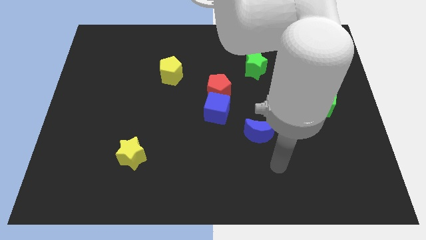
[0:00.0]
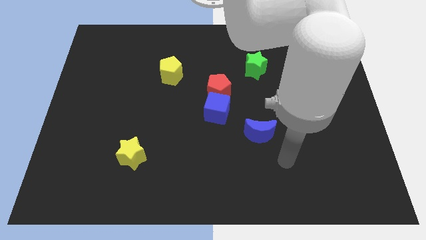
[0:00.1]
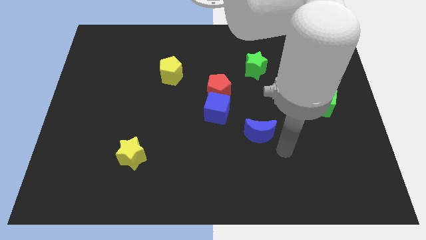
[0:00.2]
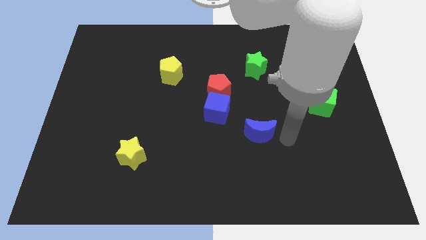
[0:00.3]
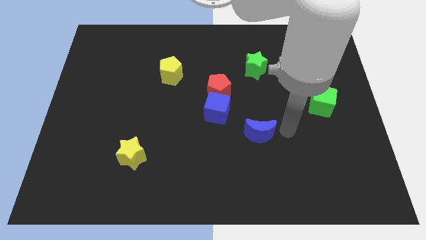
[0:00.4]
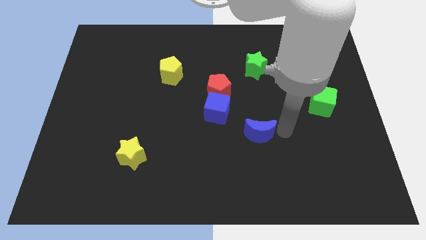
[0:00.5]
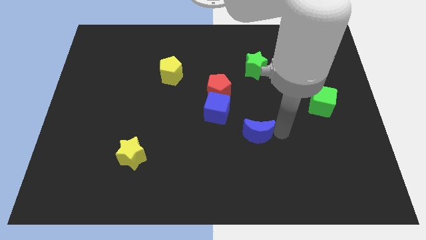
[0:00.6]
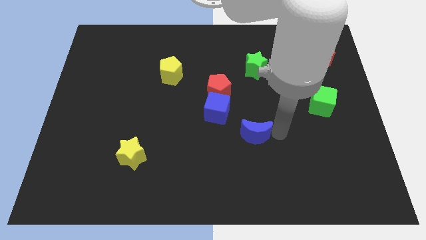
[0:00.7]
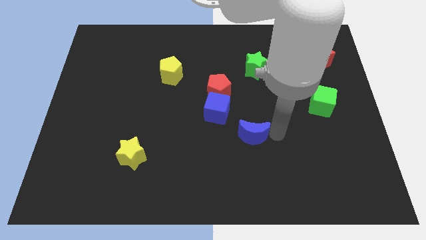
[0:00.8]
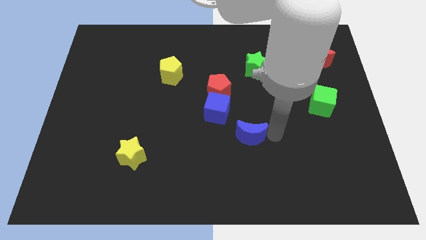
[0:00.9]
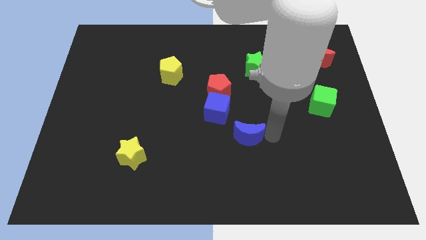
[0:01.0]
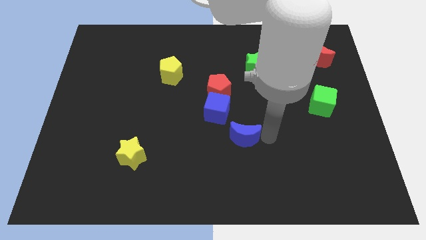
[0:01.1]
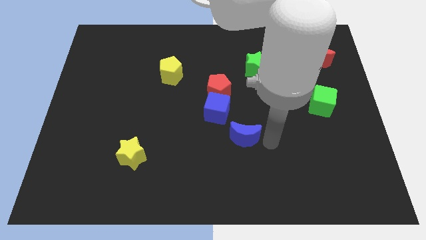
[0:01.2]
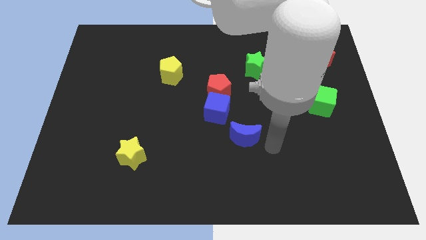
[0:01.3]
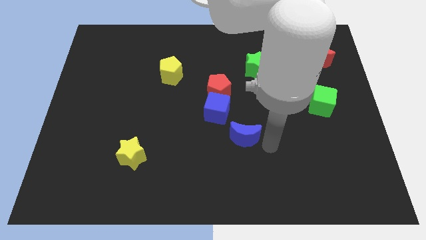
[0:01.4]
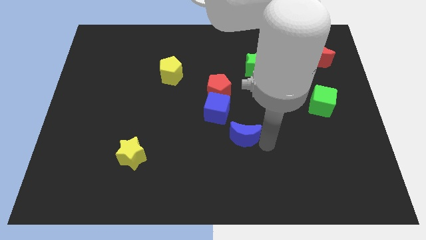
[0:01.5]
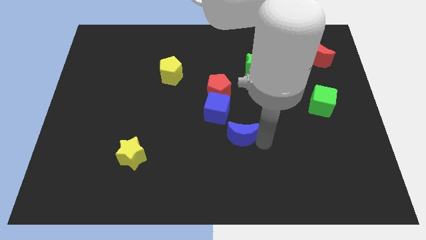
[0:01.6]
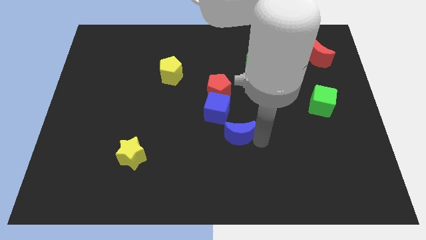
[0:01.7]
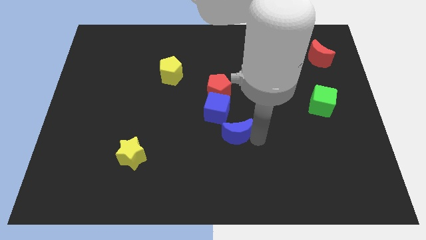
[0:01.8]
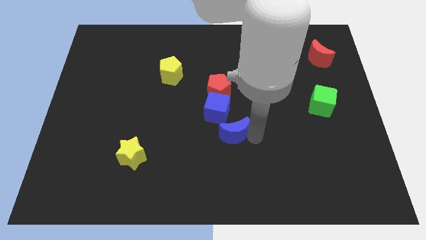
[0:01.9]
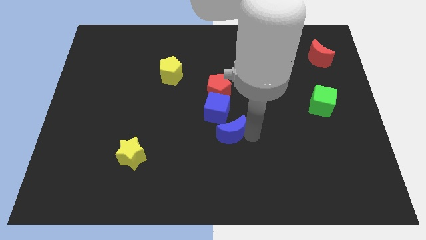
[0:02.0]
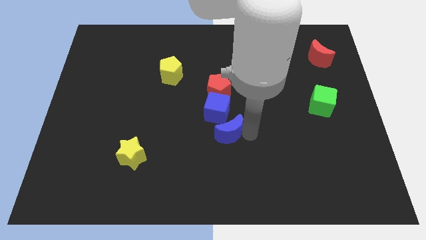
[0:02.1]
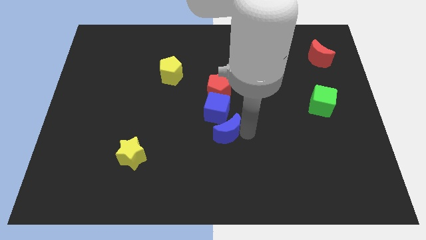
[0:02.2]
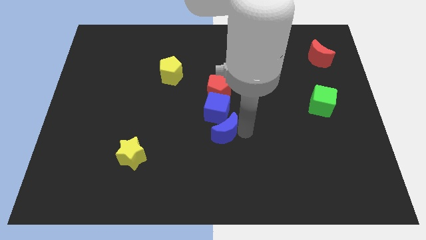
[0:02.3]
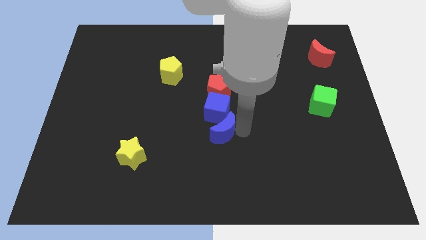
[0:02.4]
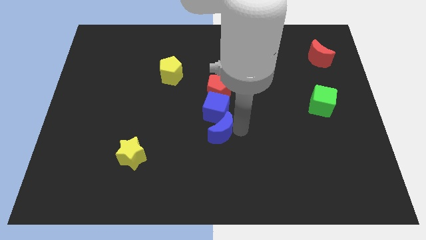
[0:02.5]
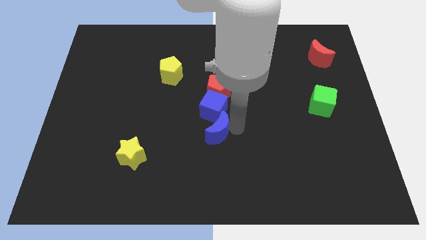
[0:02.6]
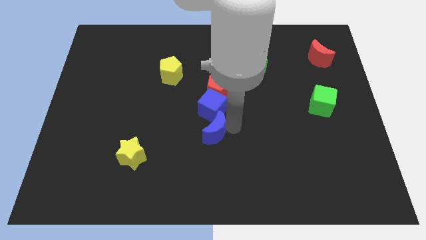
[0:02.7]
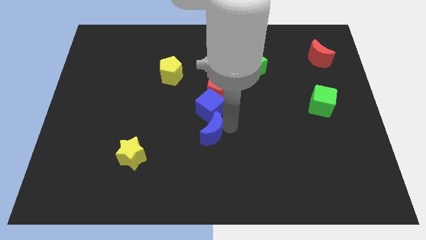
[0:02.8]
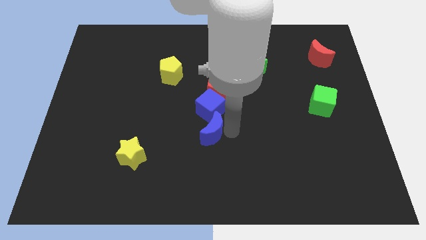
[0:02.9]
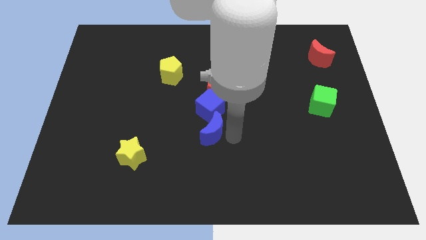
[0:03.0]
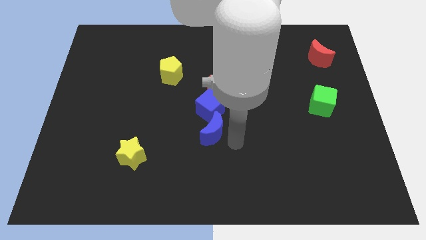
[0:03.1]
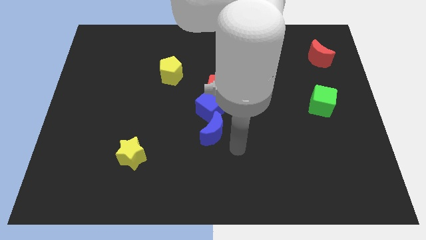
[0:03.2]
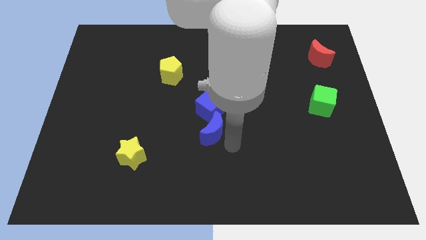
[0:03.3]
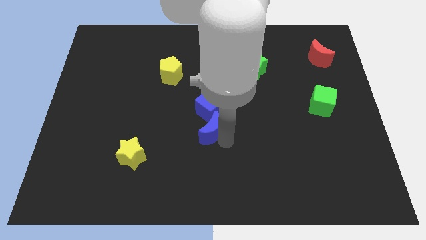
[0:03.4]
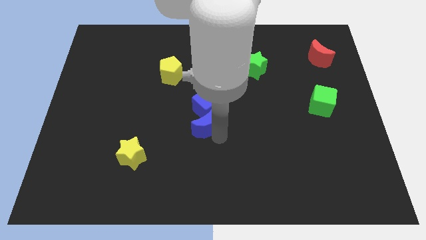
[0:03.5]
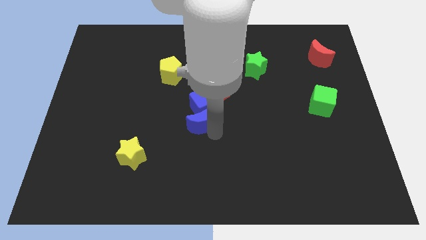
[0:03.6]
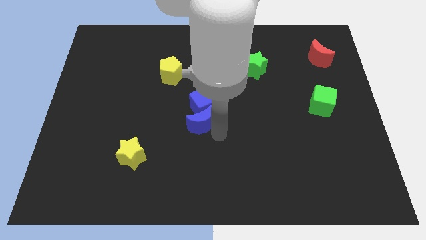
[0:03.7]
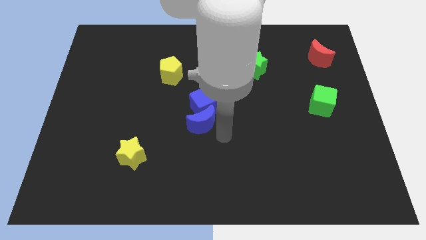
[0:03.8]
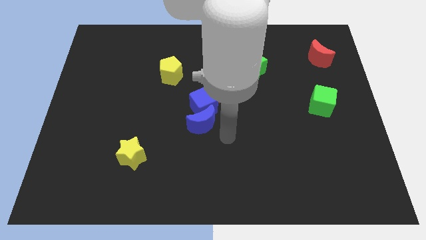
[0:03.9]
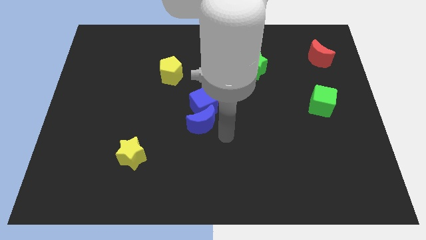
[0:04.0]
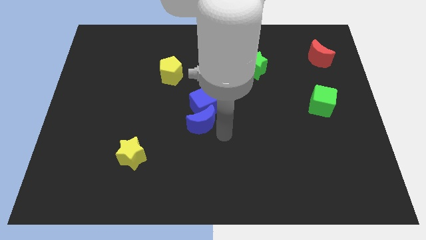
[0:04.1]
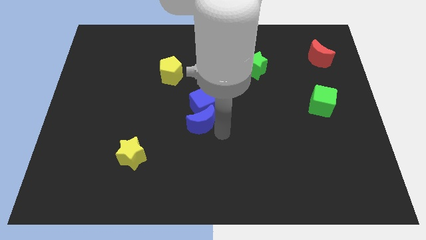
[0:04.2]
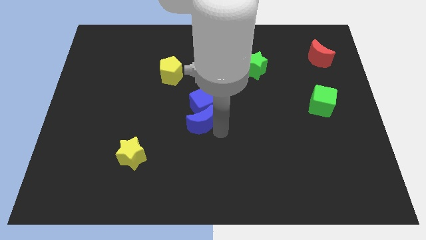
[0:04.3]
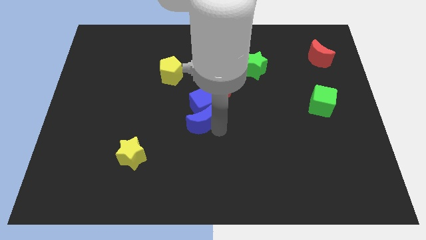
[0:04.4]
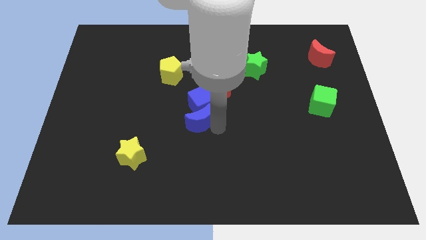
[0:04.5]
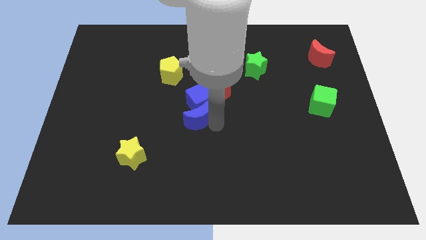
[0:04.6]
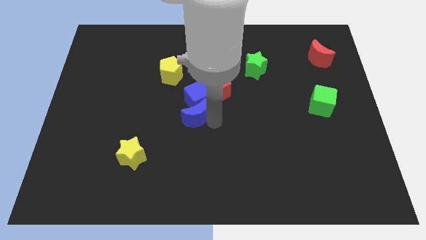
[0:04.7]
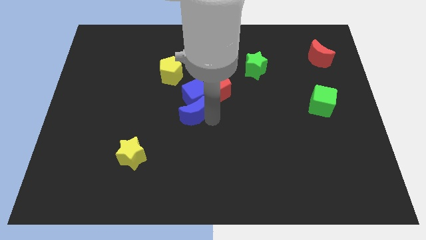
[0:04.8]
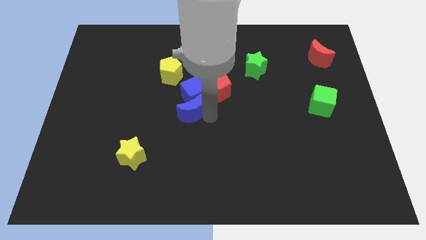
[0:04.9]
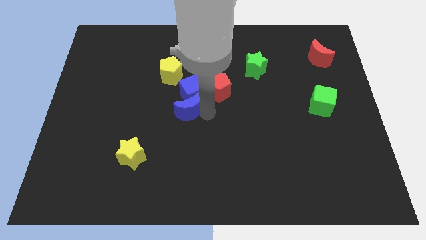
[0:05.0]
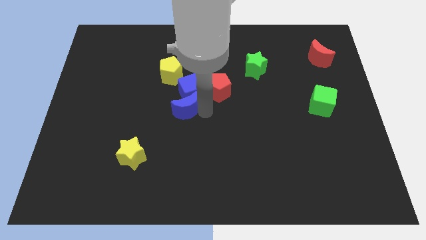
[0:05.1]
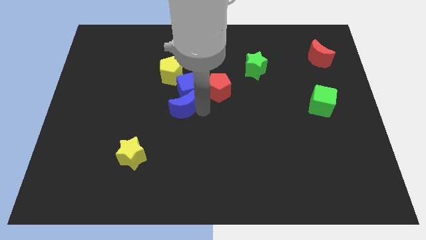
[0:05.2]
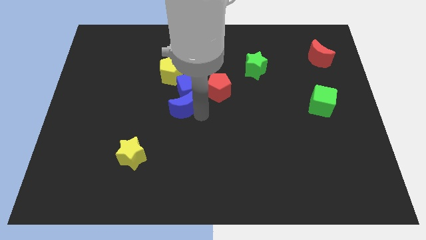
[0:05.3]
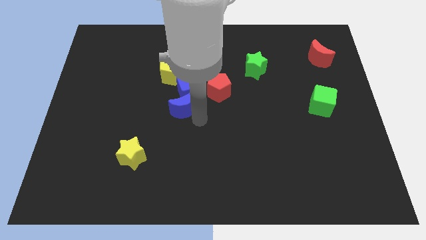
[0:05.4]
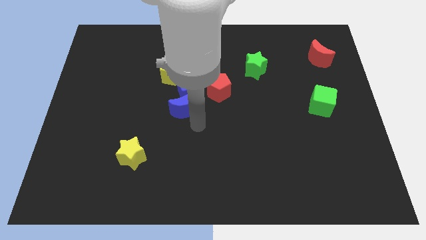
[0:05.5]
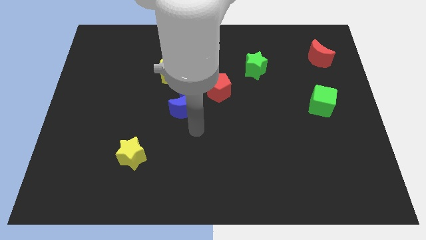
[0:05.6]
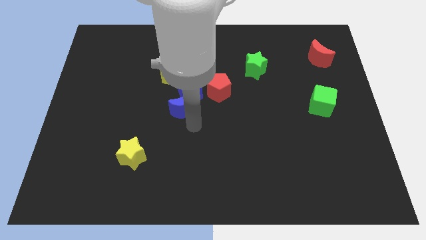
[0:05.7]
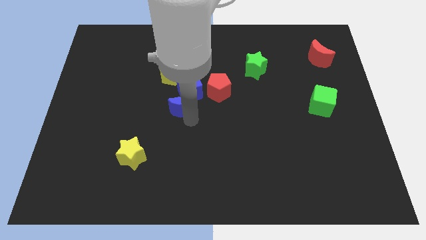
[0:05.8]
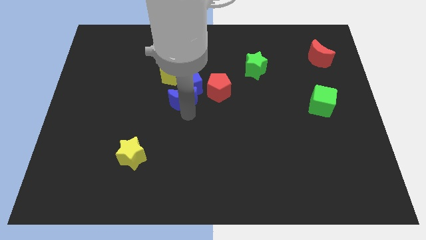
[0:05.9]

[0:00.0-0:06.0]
put the blue moon to the left side of the red pentagon
